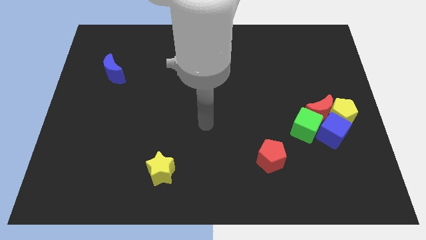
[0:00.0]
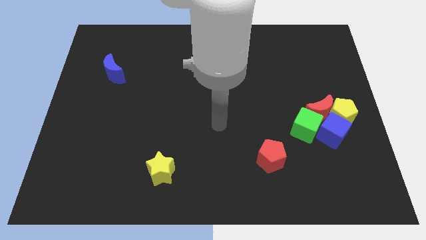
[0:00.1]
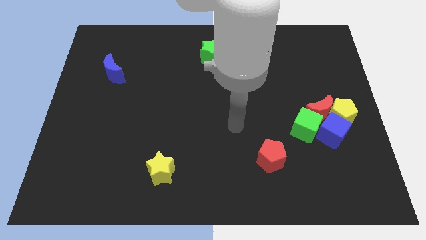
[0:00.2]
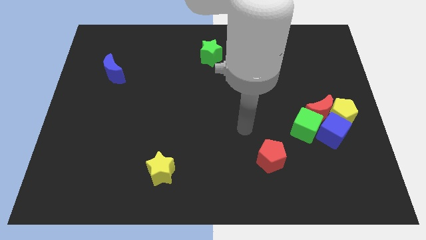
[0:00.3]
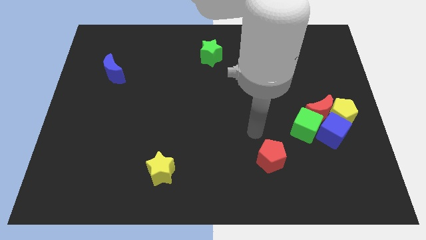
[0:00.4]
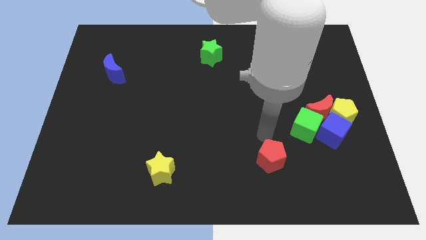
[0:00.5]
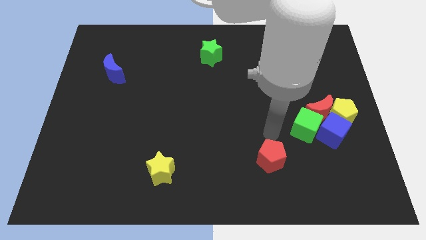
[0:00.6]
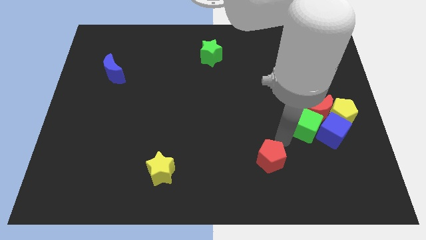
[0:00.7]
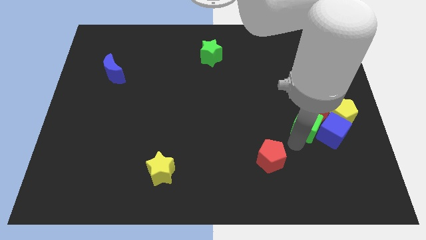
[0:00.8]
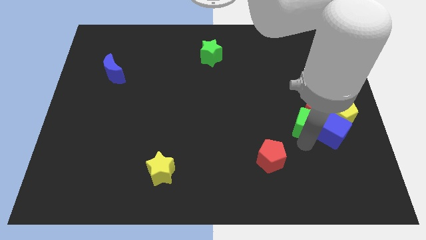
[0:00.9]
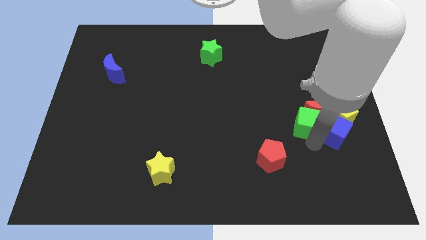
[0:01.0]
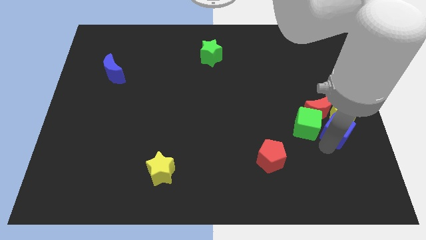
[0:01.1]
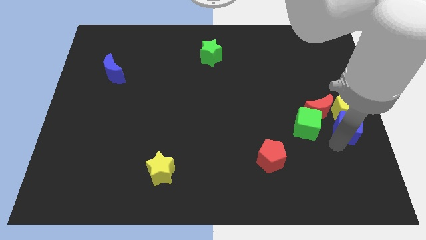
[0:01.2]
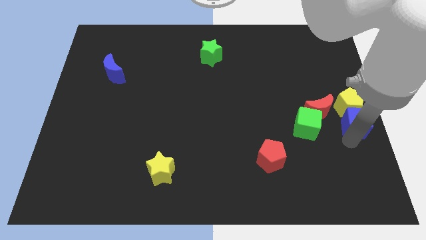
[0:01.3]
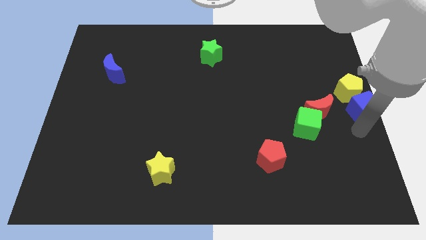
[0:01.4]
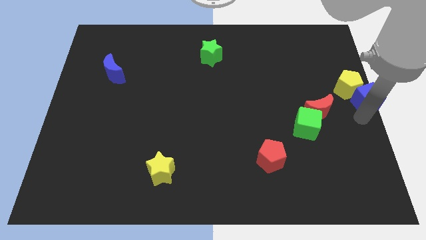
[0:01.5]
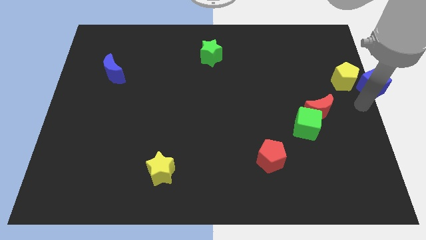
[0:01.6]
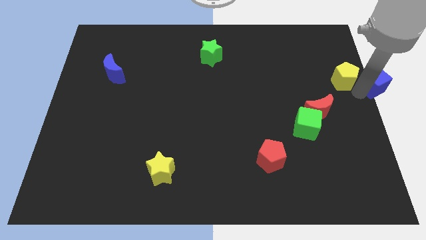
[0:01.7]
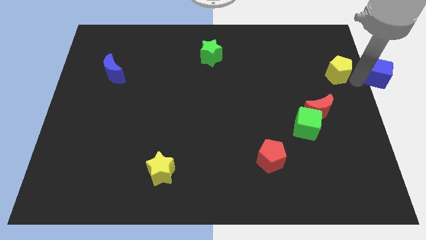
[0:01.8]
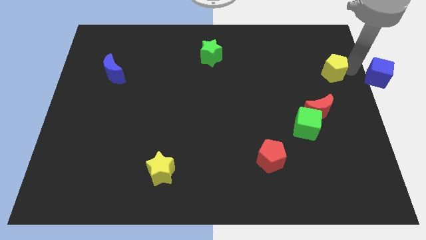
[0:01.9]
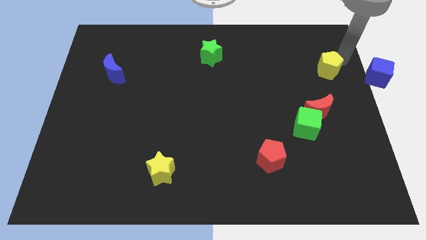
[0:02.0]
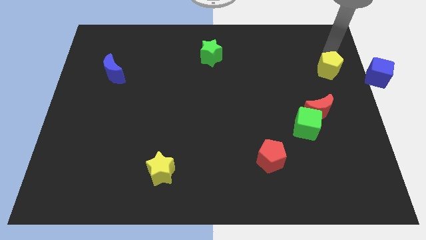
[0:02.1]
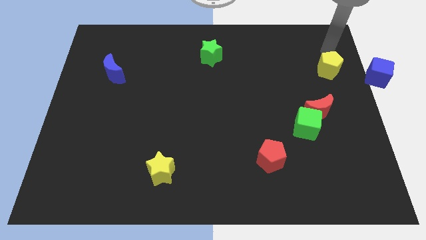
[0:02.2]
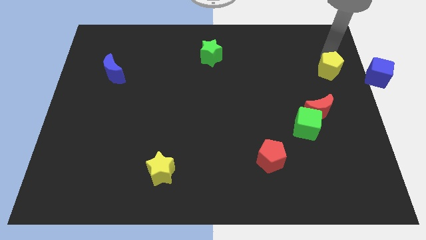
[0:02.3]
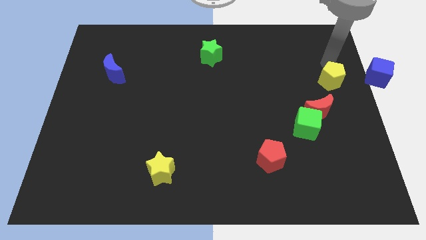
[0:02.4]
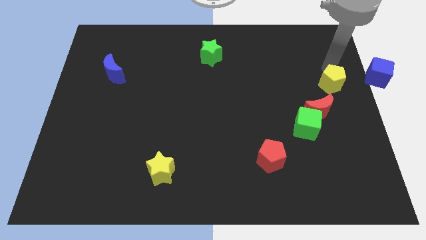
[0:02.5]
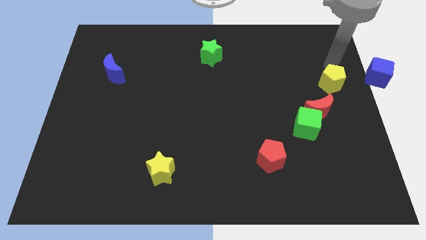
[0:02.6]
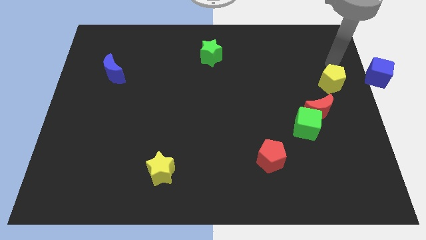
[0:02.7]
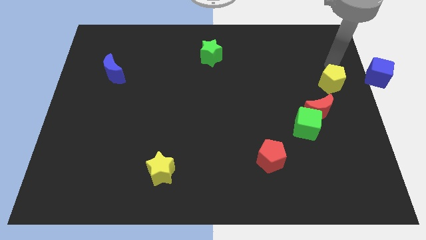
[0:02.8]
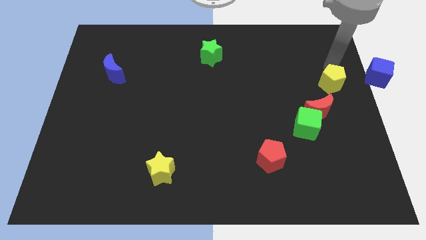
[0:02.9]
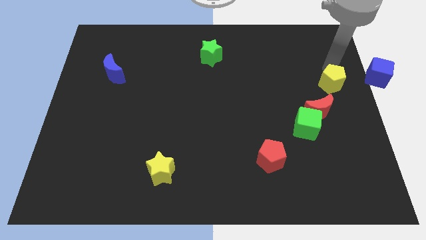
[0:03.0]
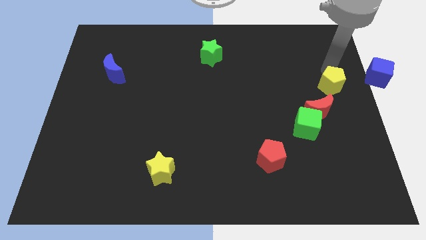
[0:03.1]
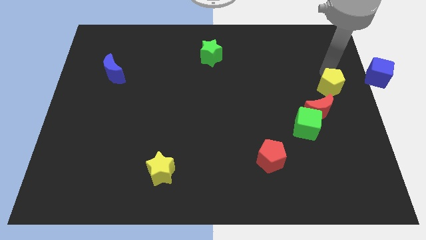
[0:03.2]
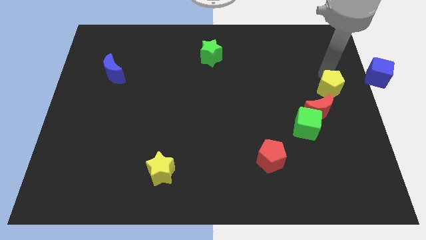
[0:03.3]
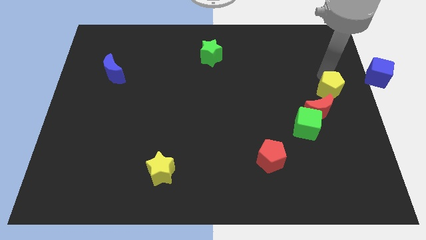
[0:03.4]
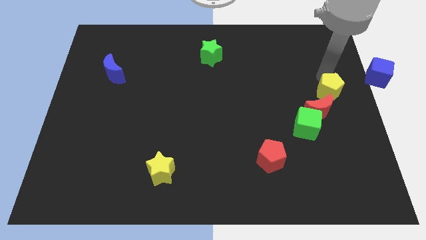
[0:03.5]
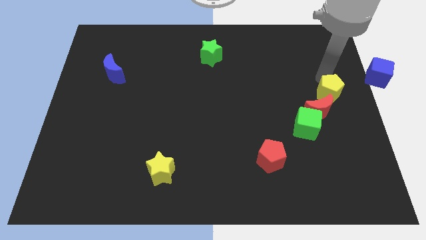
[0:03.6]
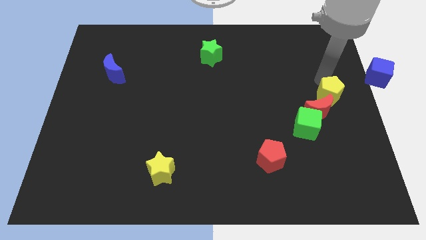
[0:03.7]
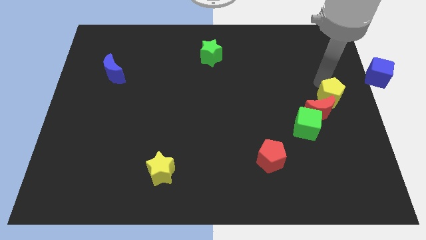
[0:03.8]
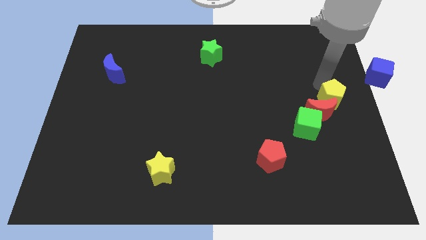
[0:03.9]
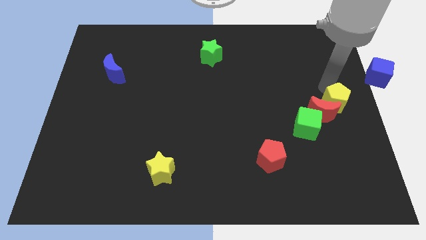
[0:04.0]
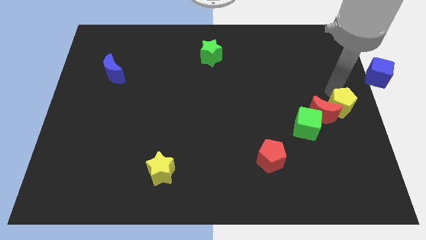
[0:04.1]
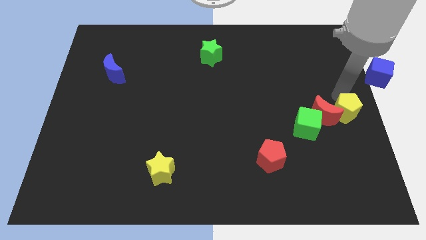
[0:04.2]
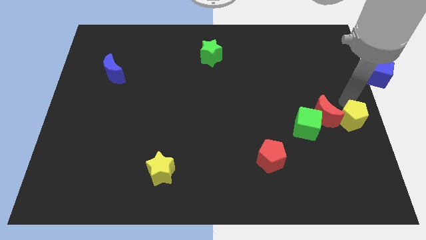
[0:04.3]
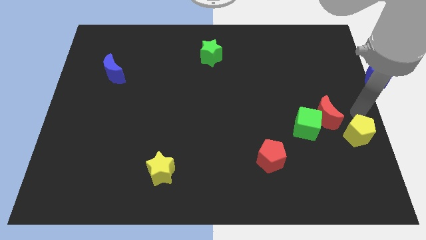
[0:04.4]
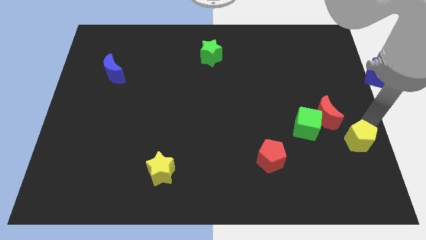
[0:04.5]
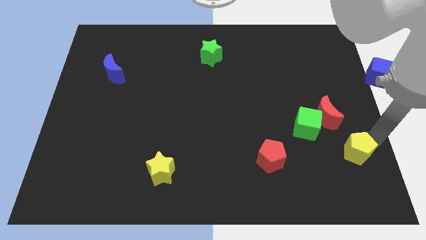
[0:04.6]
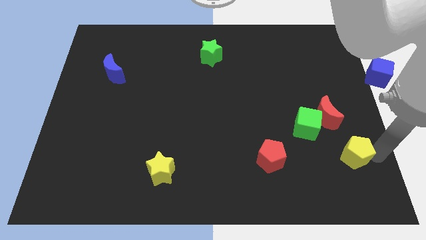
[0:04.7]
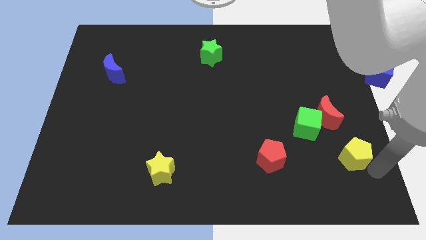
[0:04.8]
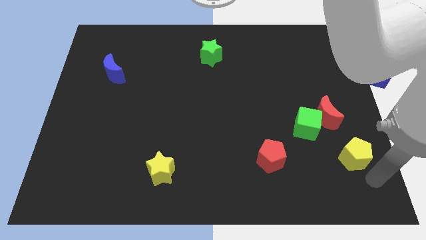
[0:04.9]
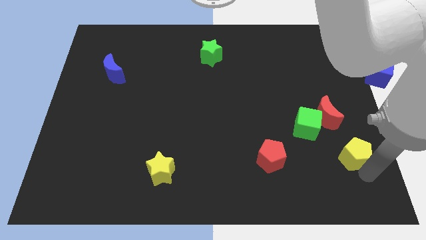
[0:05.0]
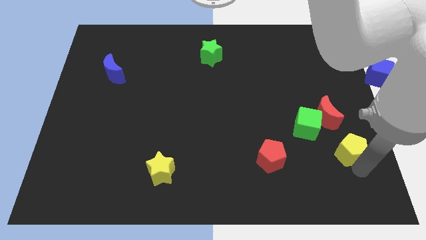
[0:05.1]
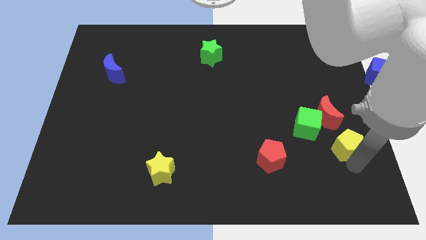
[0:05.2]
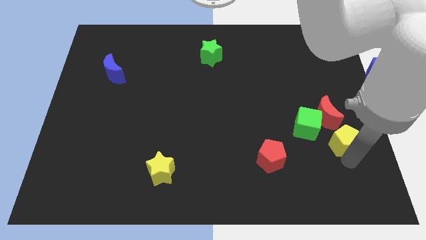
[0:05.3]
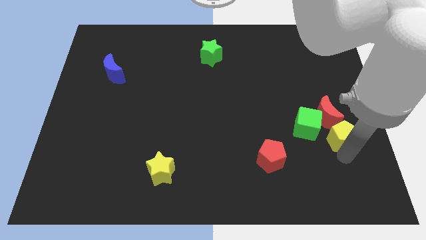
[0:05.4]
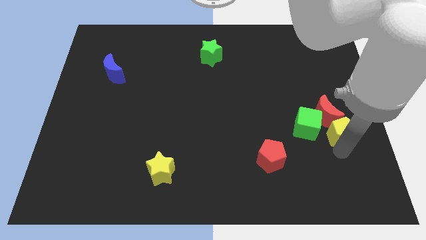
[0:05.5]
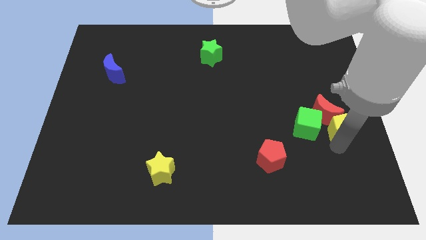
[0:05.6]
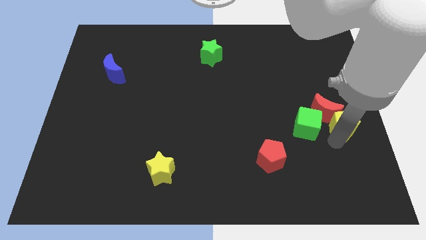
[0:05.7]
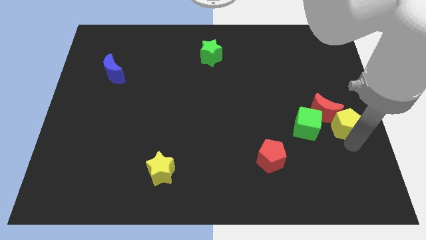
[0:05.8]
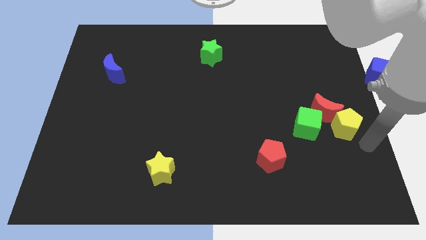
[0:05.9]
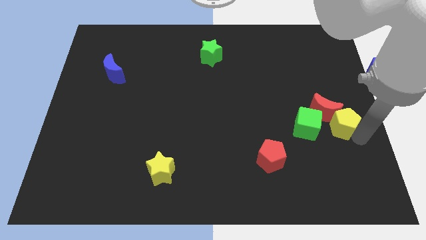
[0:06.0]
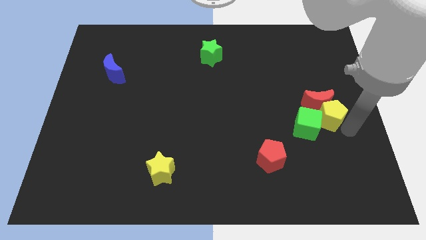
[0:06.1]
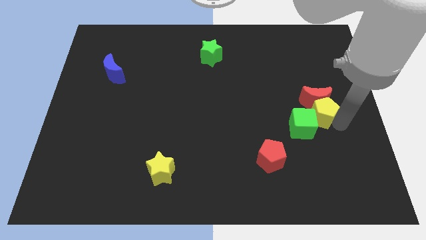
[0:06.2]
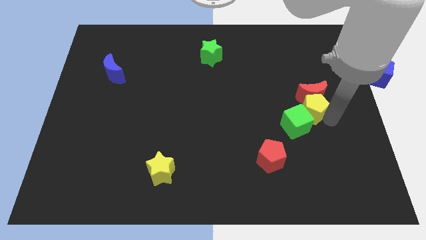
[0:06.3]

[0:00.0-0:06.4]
push the yellow pentagon to the top side of the green cube

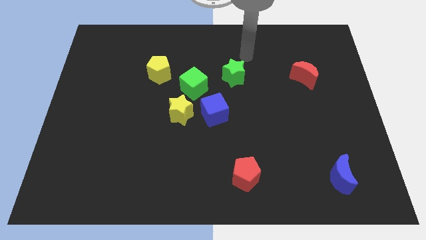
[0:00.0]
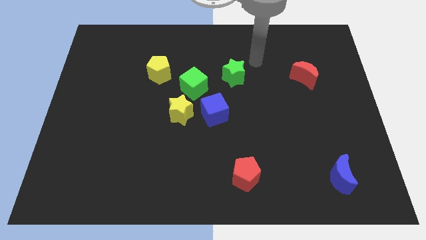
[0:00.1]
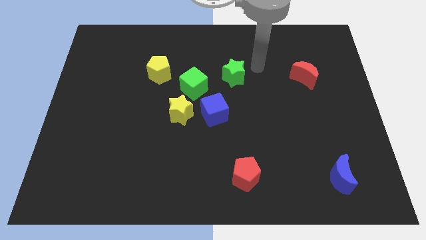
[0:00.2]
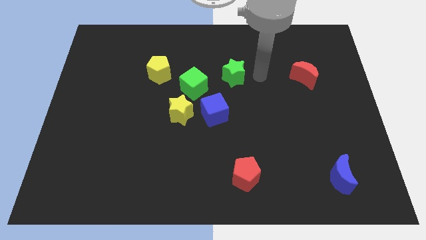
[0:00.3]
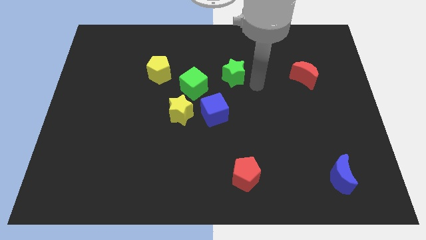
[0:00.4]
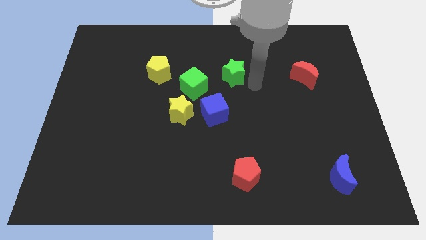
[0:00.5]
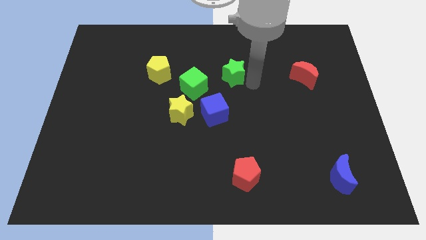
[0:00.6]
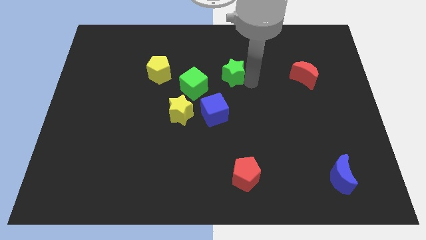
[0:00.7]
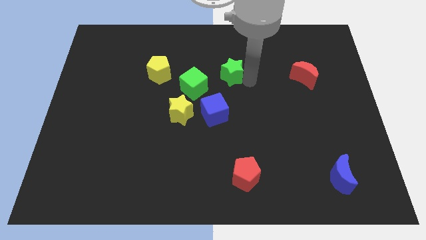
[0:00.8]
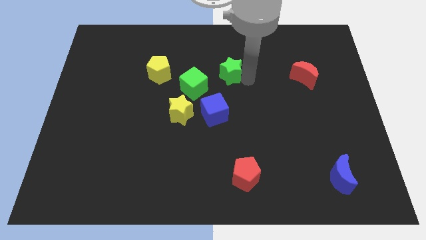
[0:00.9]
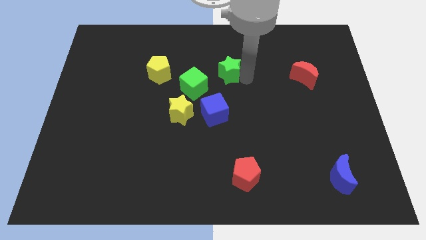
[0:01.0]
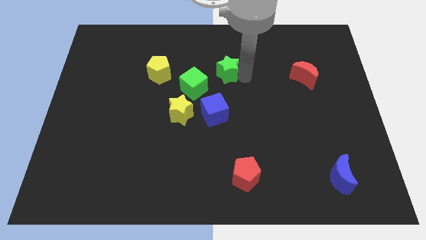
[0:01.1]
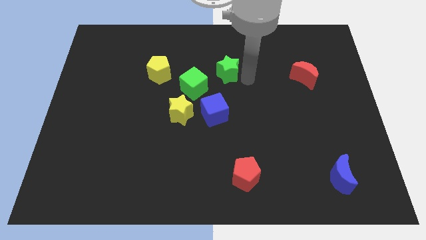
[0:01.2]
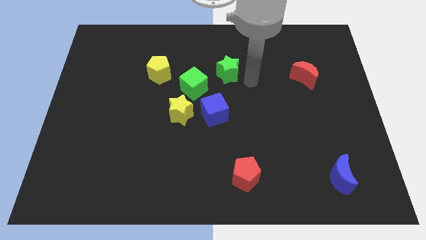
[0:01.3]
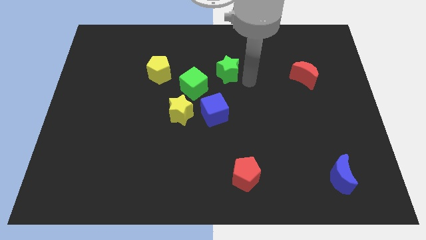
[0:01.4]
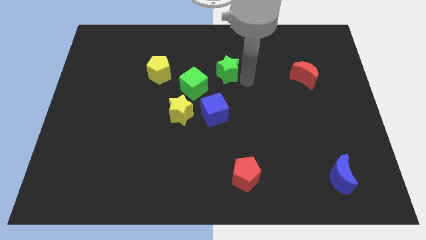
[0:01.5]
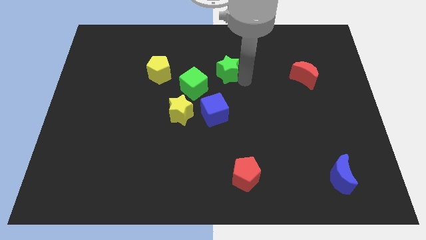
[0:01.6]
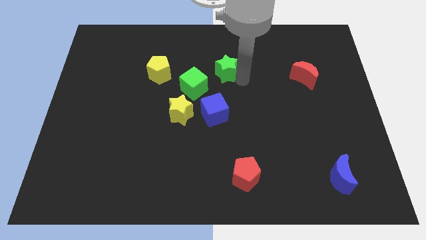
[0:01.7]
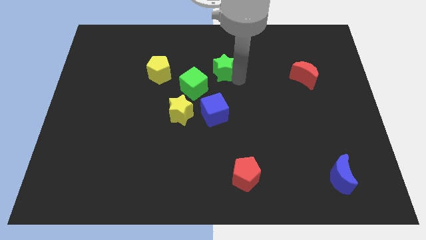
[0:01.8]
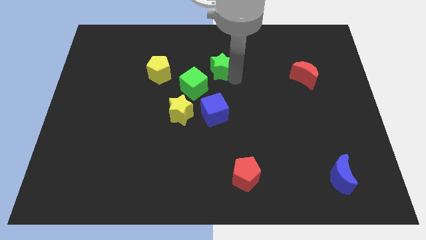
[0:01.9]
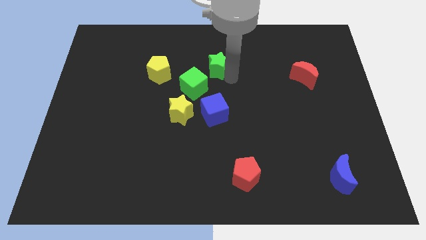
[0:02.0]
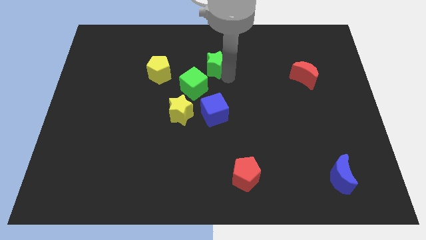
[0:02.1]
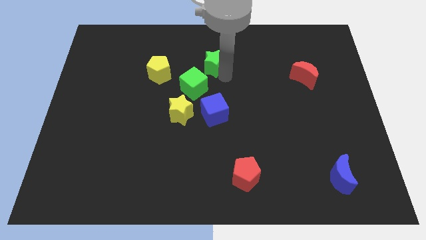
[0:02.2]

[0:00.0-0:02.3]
put the green star to the top side of the green cube
